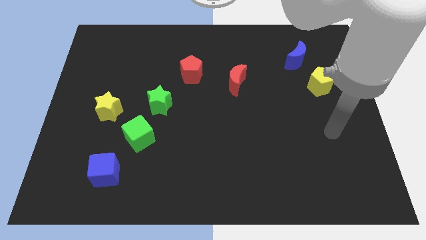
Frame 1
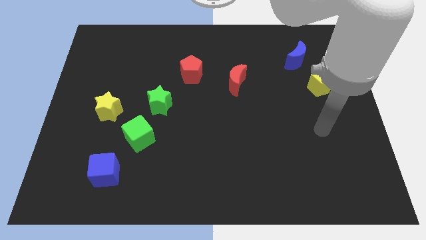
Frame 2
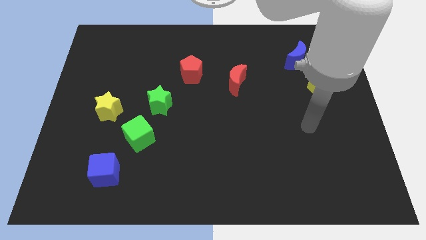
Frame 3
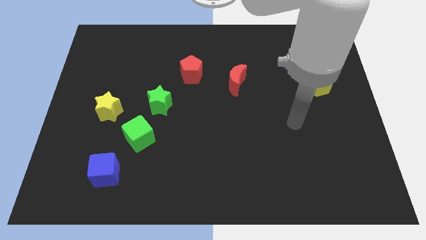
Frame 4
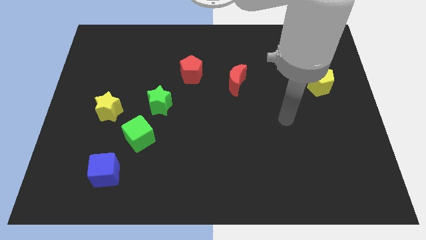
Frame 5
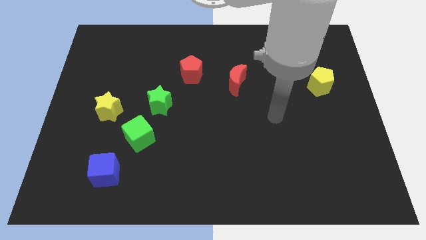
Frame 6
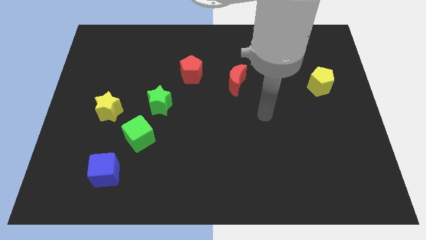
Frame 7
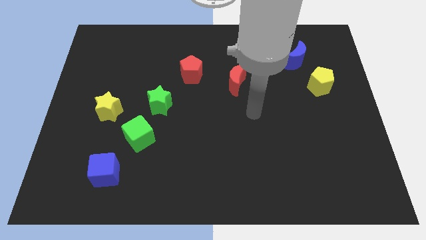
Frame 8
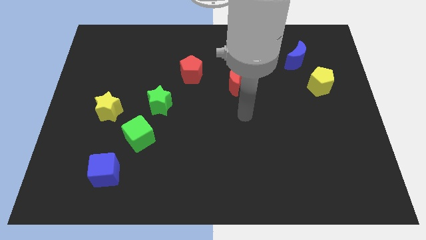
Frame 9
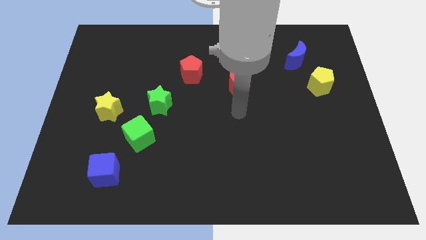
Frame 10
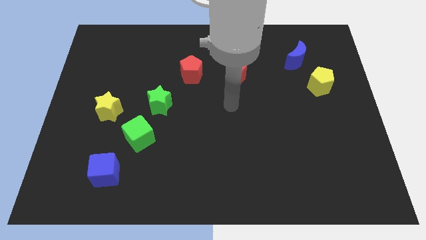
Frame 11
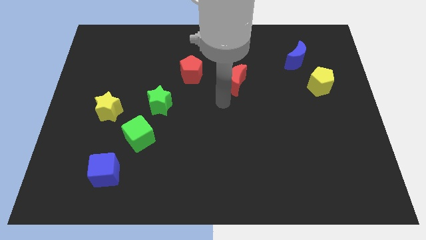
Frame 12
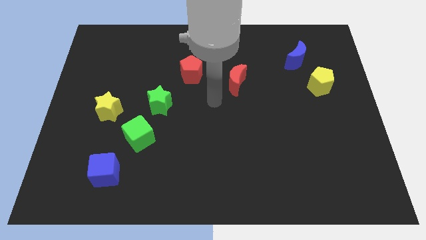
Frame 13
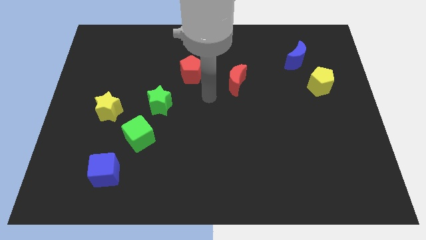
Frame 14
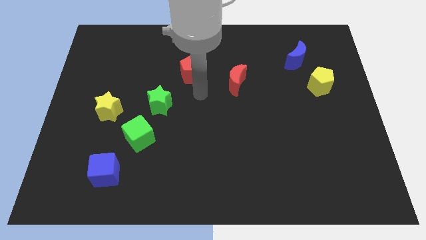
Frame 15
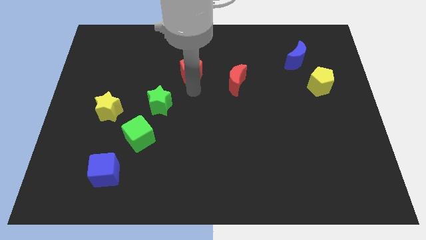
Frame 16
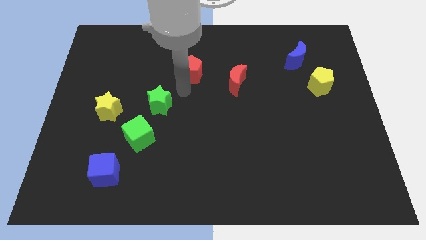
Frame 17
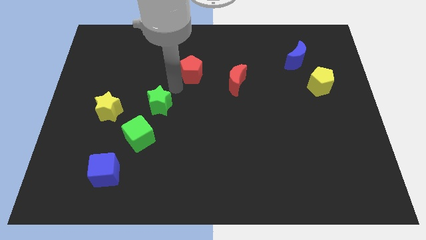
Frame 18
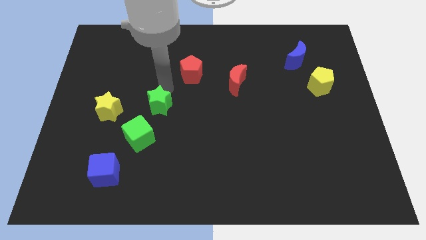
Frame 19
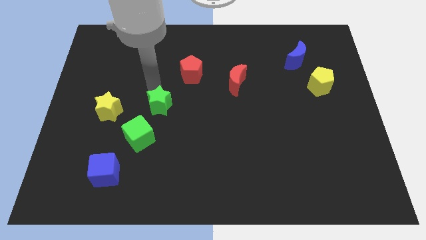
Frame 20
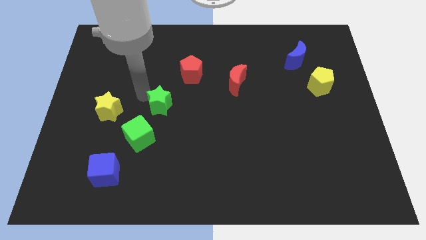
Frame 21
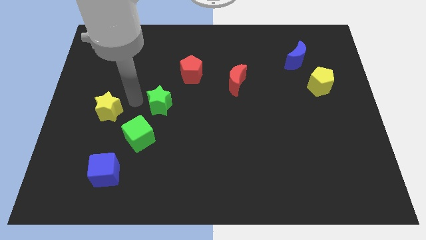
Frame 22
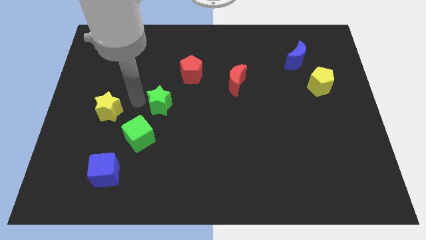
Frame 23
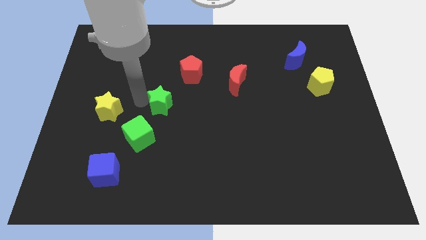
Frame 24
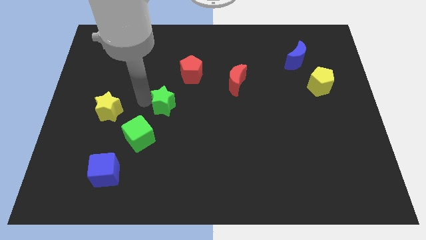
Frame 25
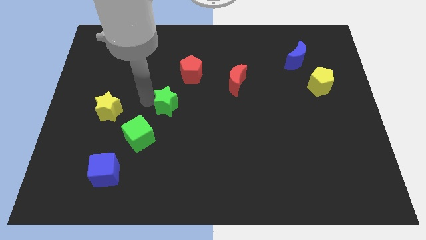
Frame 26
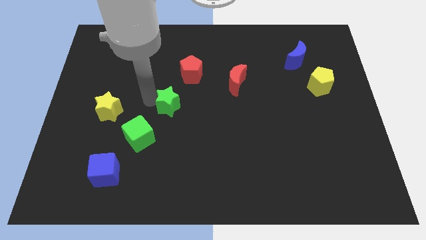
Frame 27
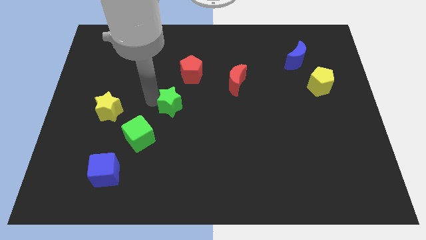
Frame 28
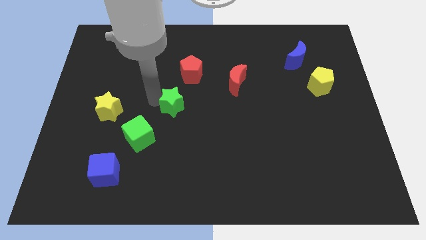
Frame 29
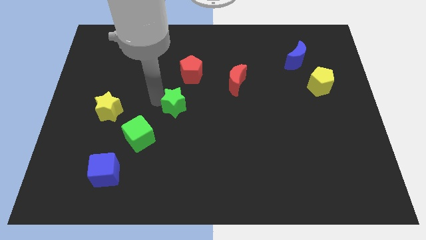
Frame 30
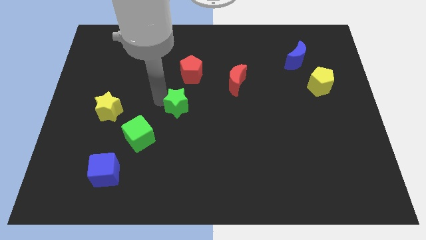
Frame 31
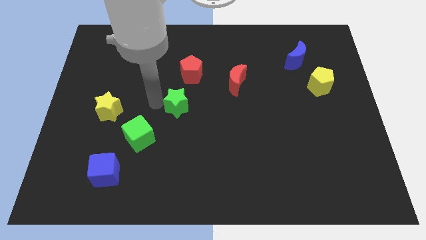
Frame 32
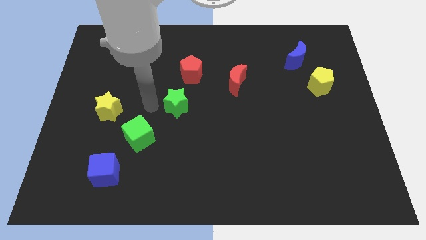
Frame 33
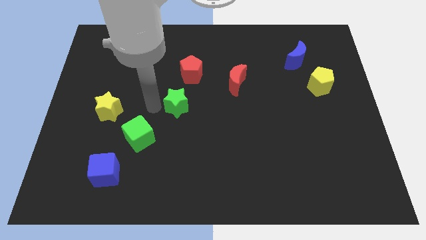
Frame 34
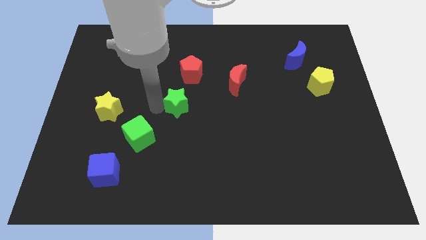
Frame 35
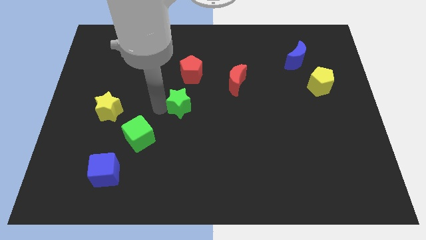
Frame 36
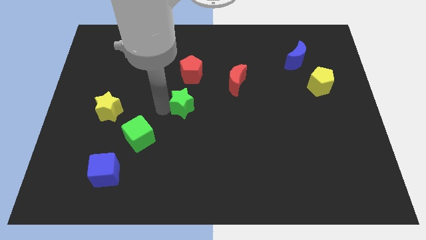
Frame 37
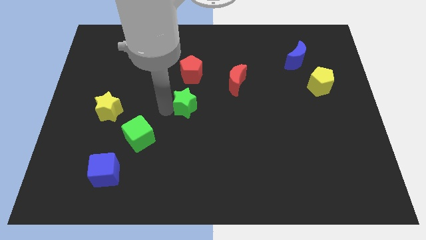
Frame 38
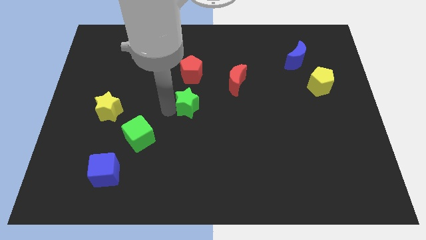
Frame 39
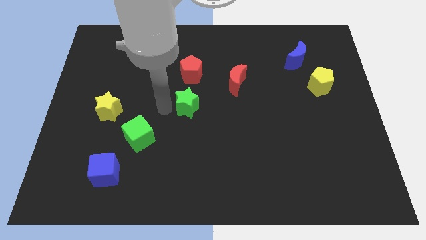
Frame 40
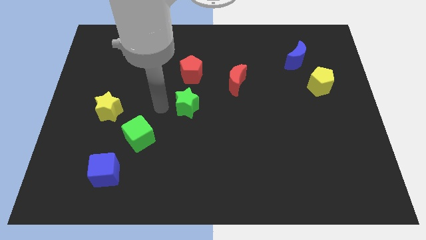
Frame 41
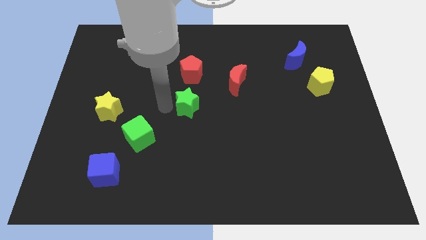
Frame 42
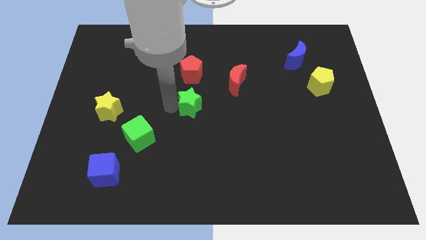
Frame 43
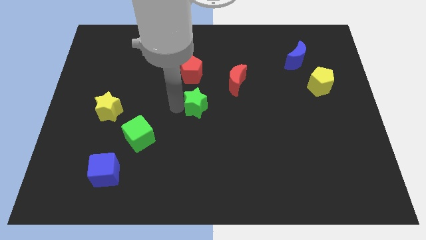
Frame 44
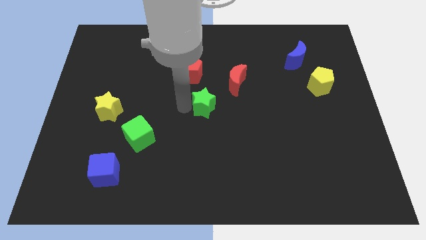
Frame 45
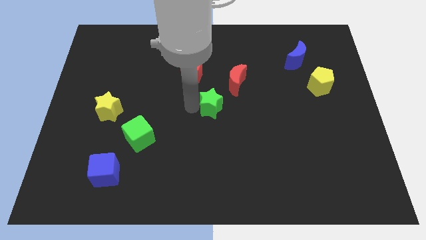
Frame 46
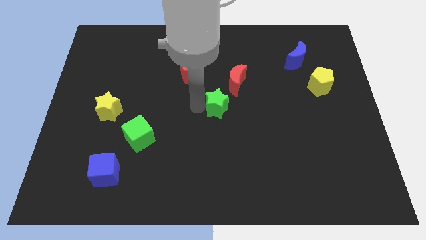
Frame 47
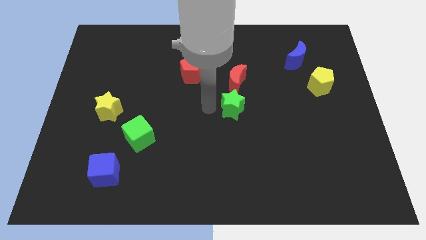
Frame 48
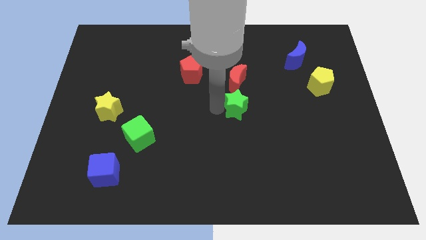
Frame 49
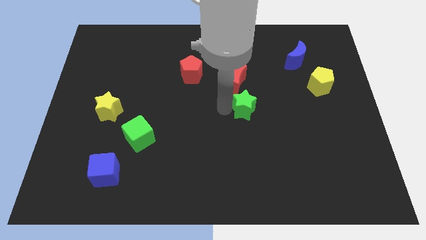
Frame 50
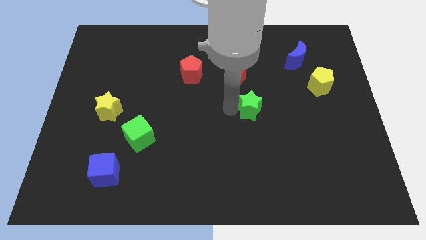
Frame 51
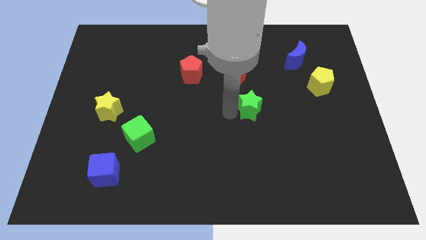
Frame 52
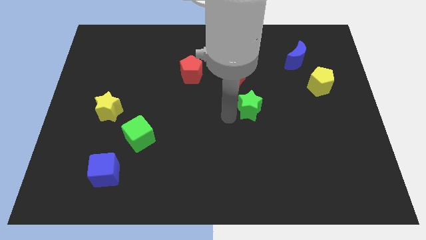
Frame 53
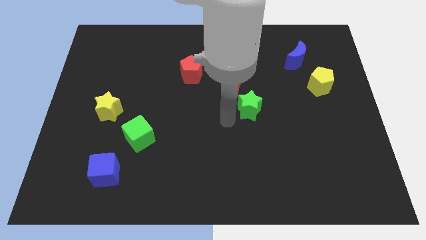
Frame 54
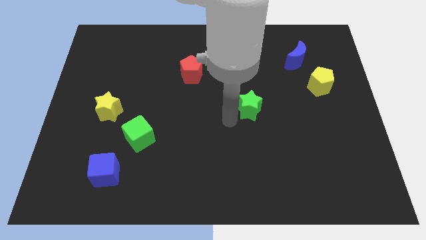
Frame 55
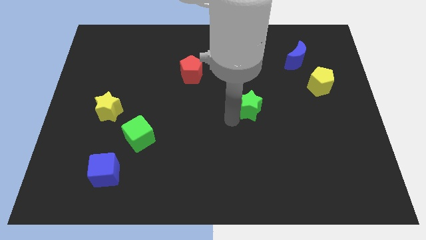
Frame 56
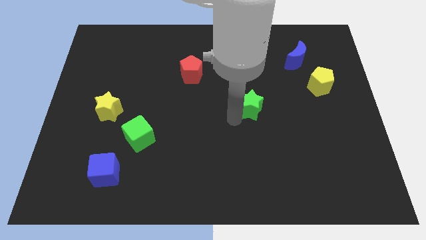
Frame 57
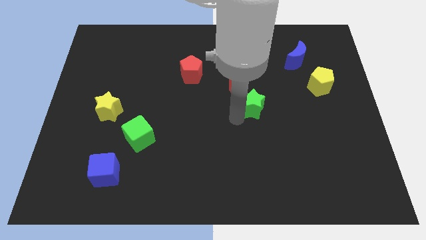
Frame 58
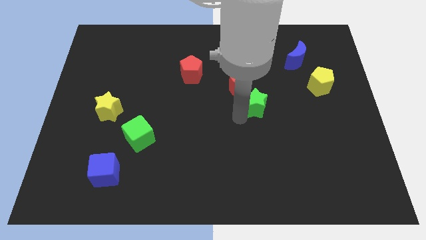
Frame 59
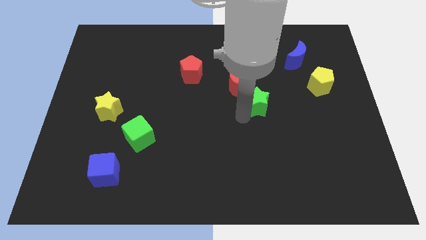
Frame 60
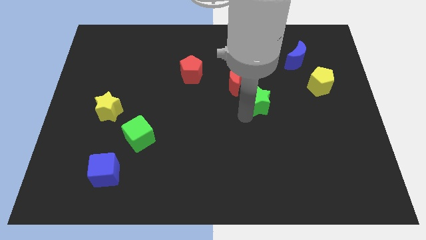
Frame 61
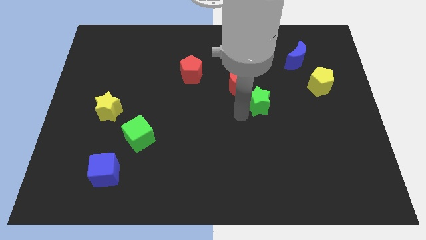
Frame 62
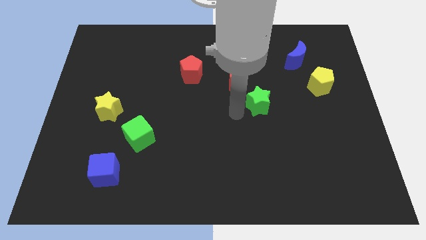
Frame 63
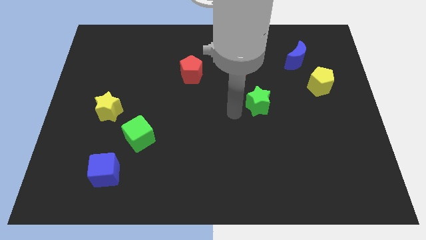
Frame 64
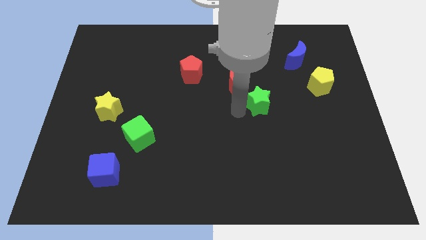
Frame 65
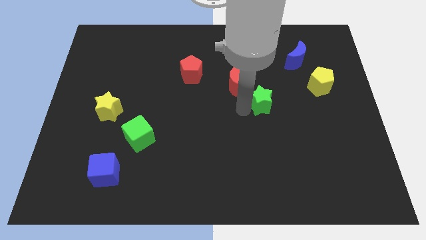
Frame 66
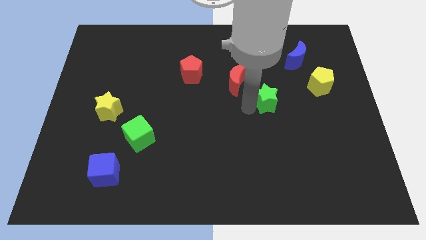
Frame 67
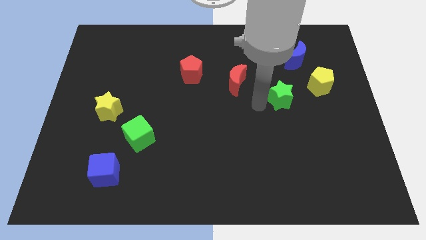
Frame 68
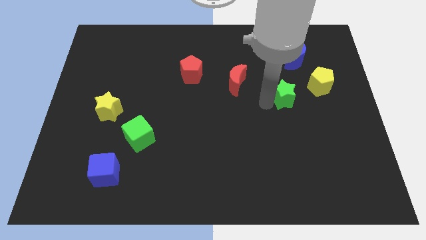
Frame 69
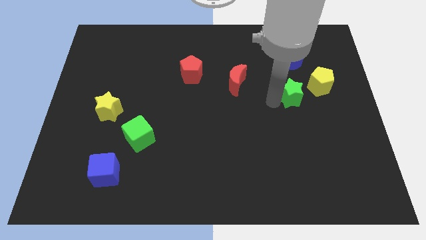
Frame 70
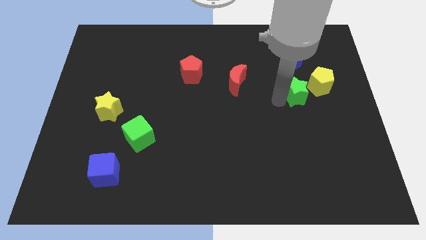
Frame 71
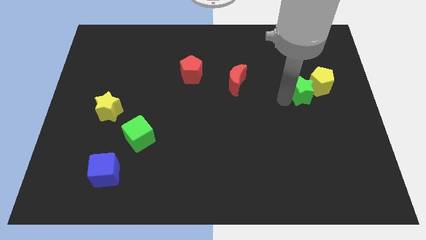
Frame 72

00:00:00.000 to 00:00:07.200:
slide the green star to the yellow pentagon

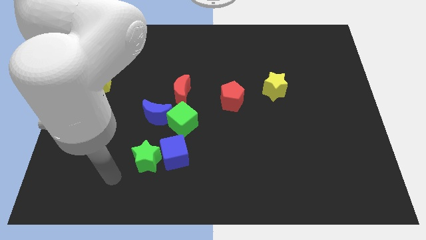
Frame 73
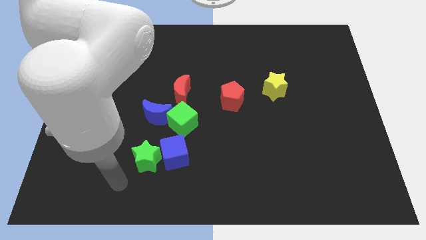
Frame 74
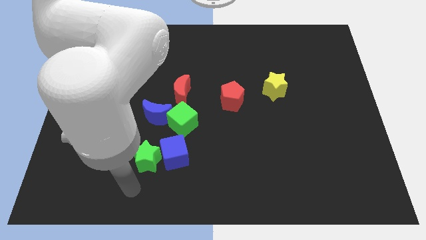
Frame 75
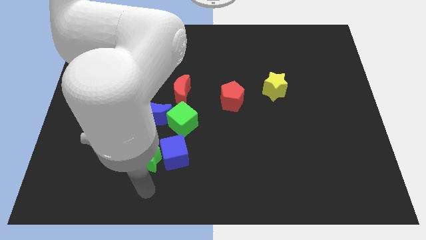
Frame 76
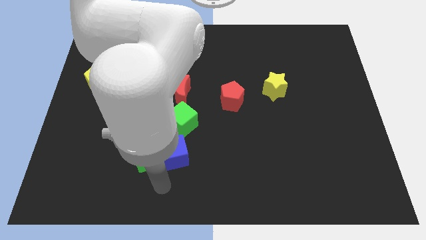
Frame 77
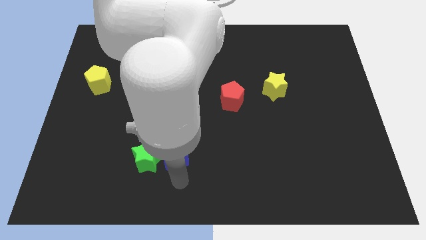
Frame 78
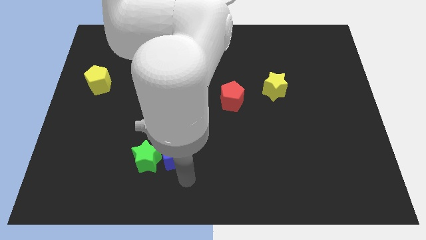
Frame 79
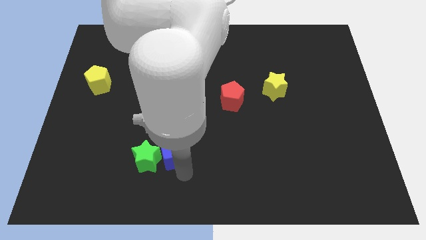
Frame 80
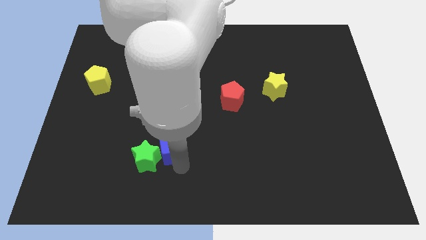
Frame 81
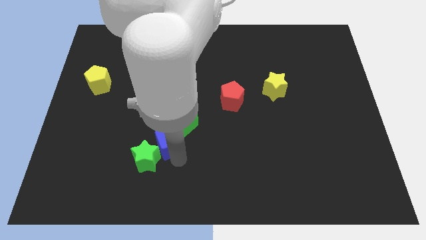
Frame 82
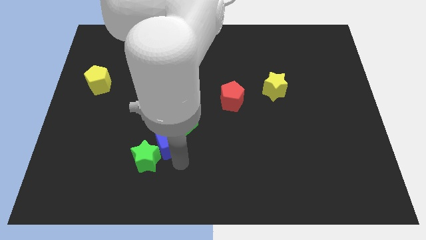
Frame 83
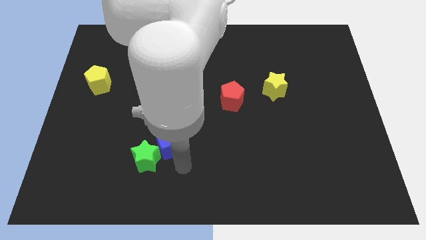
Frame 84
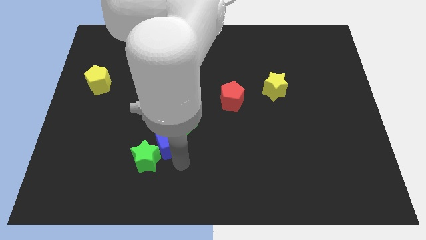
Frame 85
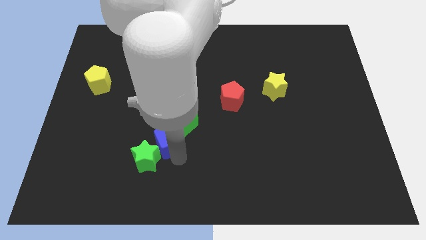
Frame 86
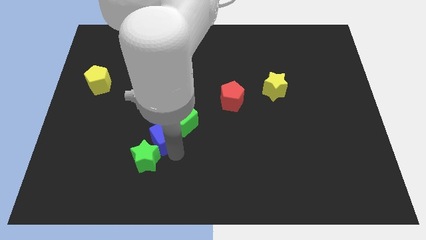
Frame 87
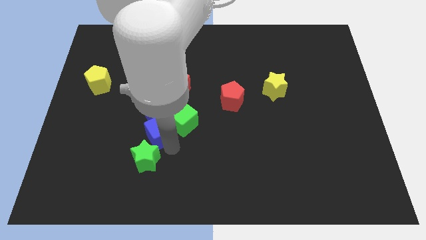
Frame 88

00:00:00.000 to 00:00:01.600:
slide the blue cube to the blue moon

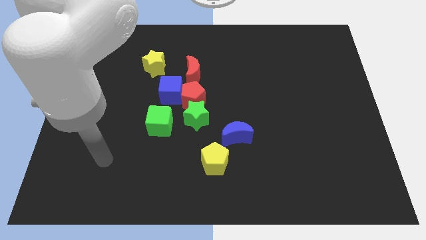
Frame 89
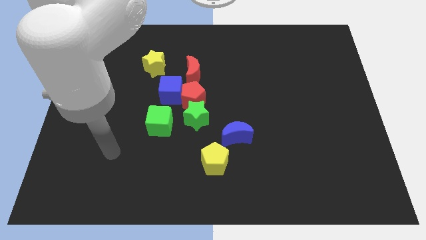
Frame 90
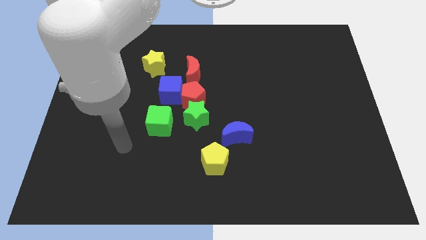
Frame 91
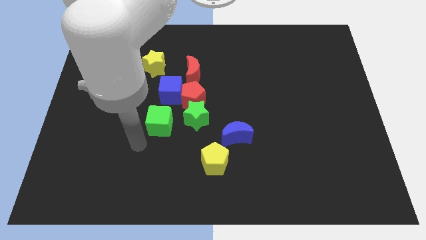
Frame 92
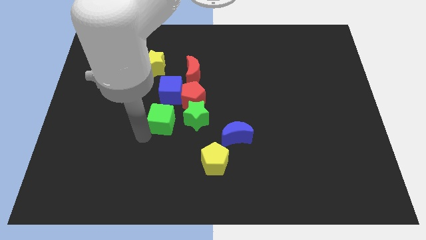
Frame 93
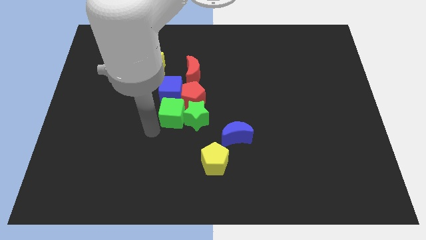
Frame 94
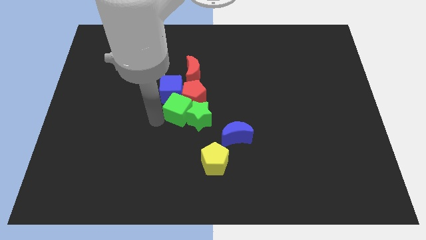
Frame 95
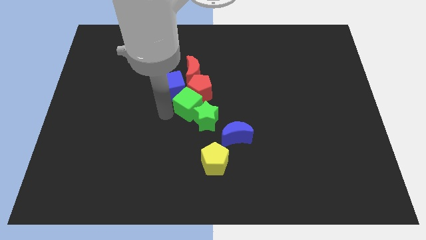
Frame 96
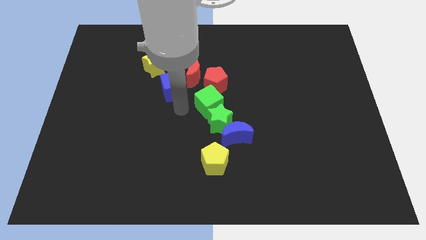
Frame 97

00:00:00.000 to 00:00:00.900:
move the green star close to the blue moon
